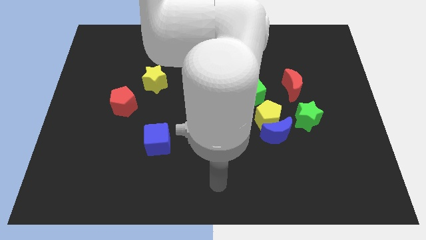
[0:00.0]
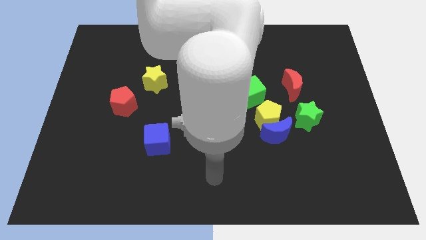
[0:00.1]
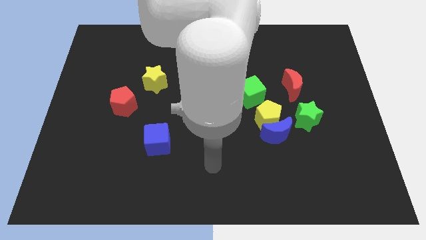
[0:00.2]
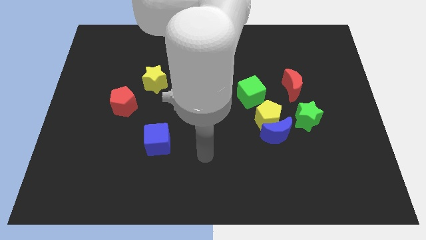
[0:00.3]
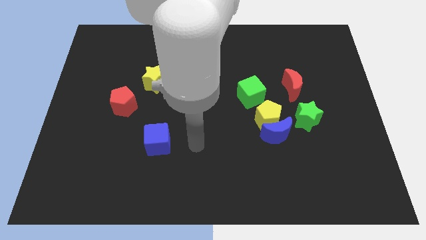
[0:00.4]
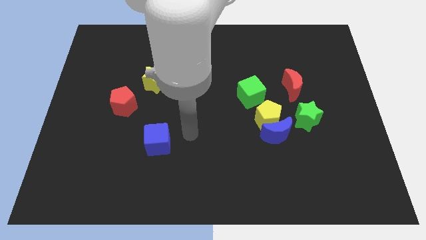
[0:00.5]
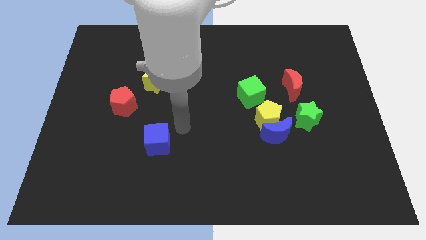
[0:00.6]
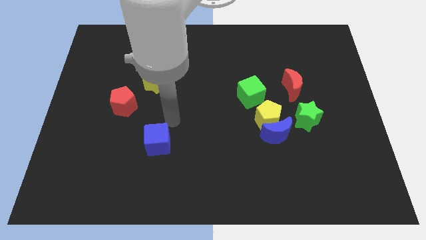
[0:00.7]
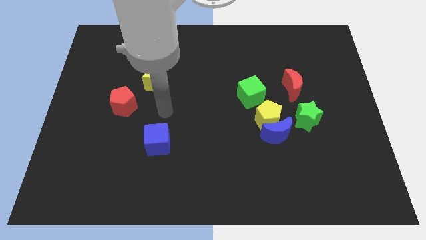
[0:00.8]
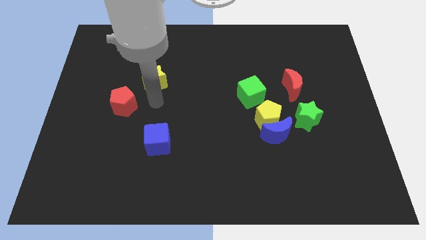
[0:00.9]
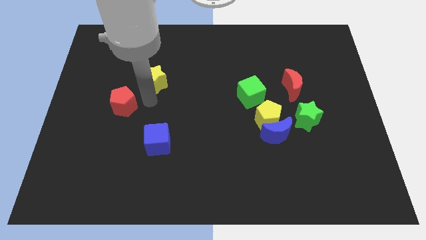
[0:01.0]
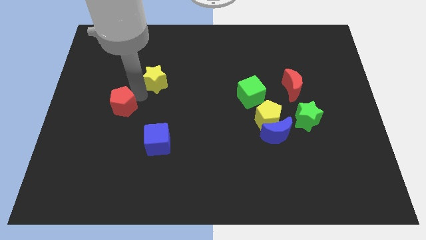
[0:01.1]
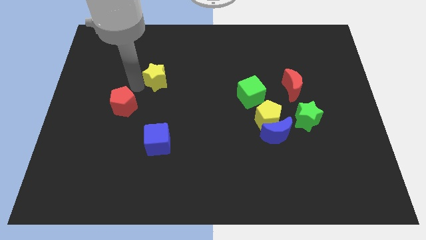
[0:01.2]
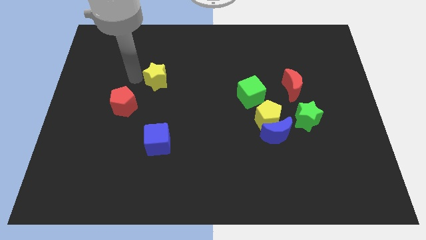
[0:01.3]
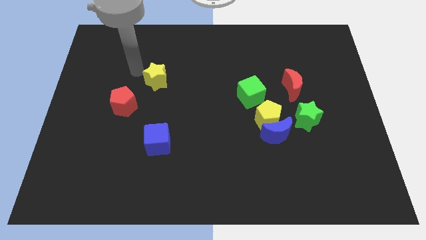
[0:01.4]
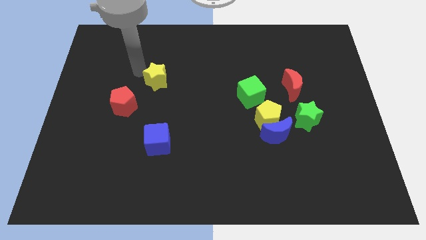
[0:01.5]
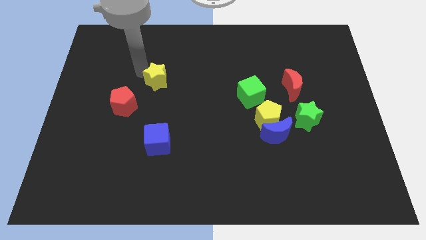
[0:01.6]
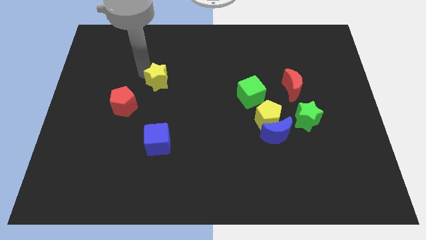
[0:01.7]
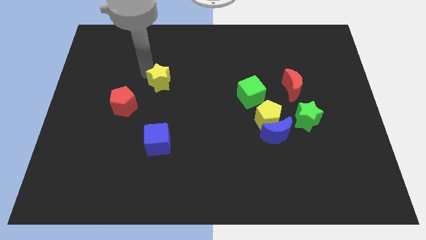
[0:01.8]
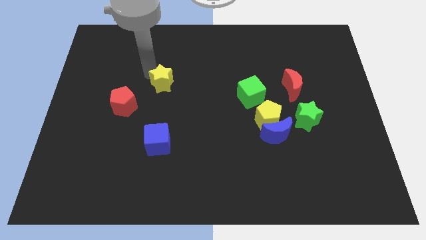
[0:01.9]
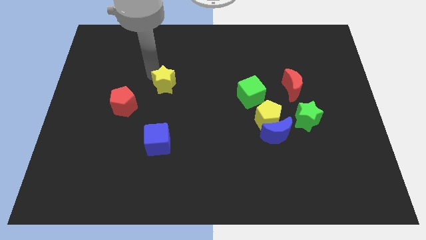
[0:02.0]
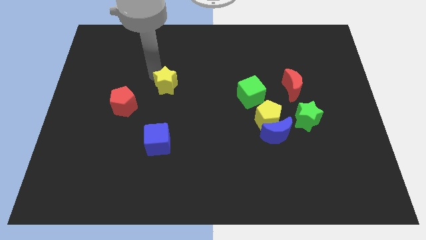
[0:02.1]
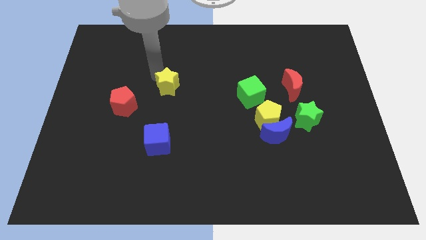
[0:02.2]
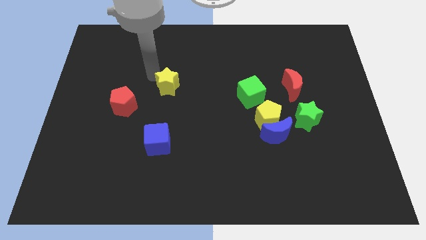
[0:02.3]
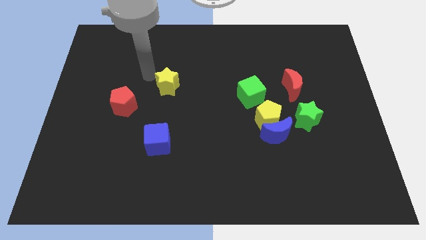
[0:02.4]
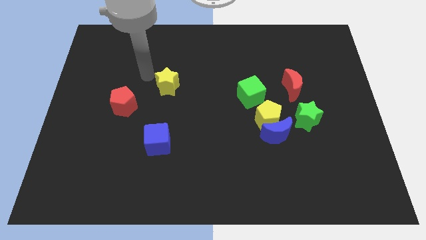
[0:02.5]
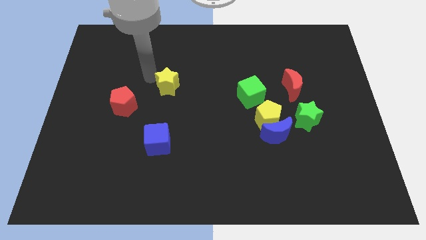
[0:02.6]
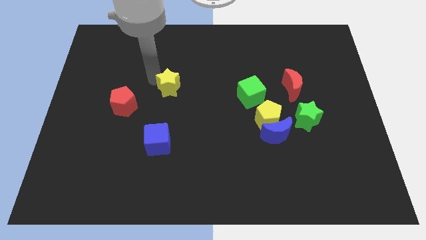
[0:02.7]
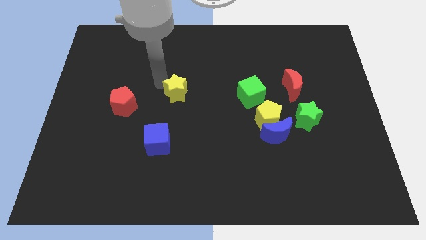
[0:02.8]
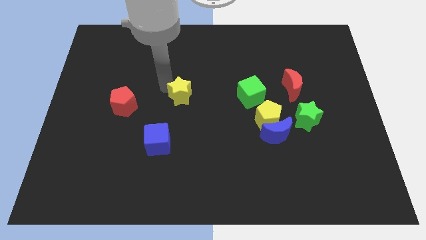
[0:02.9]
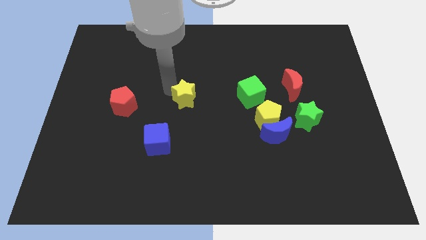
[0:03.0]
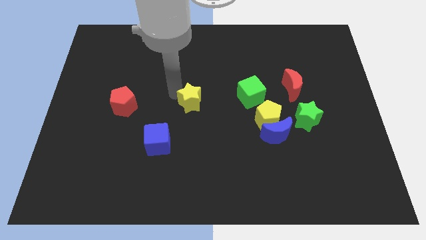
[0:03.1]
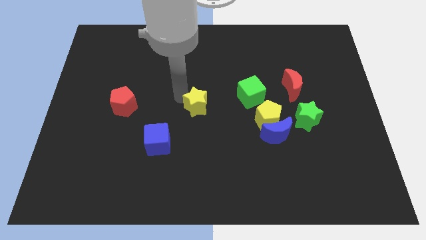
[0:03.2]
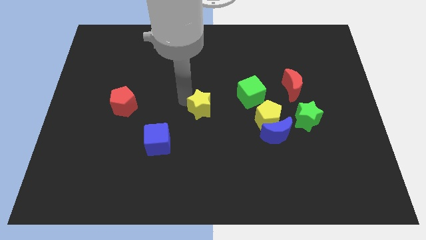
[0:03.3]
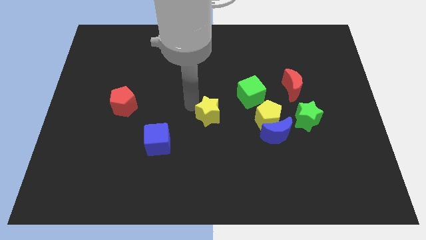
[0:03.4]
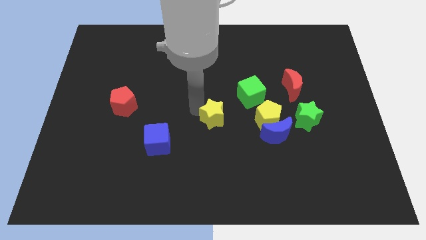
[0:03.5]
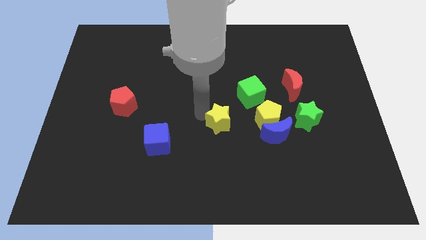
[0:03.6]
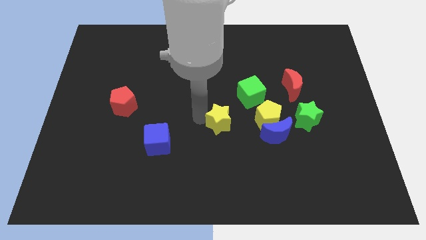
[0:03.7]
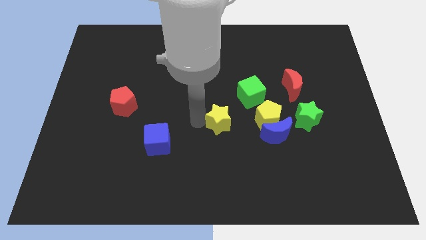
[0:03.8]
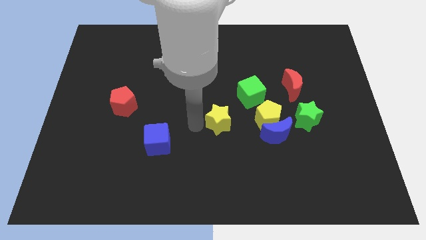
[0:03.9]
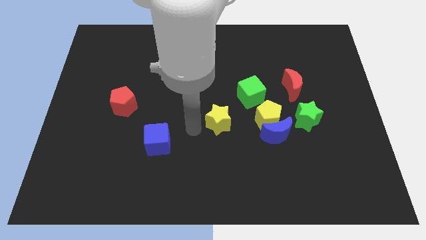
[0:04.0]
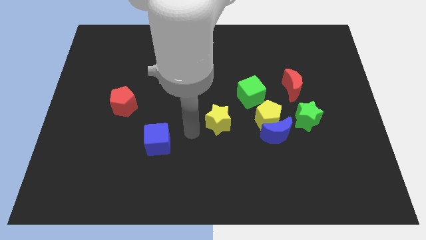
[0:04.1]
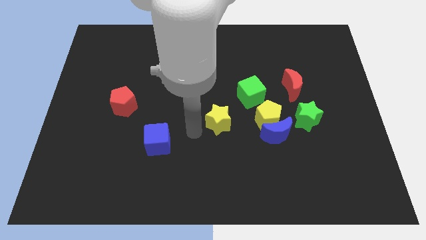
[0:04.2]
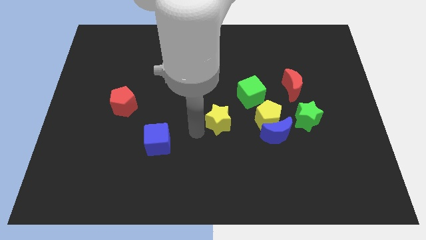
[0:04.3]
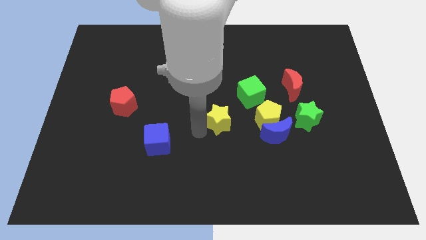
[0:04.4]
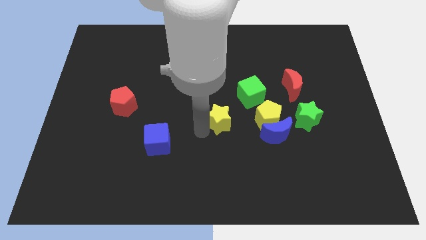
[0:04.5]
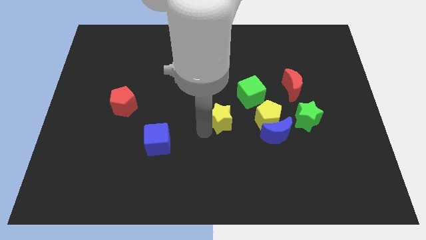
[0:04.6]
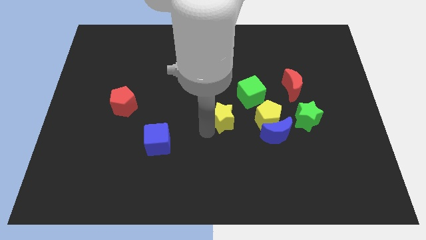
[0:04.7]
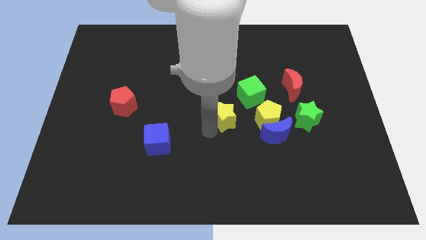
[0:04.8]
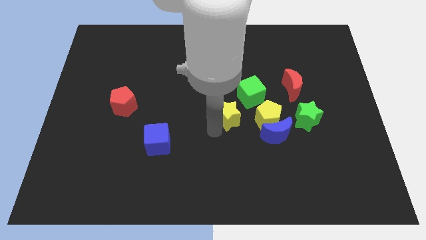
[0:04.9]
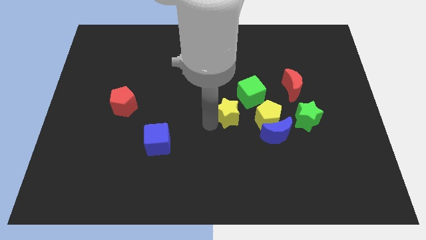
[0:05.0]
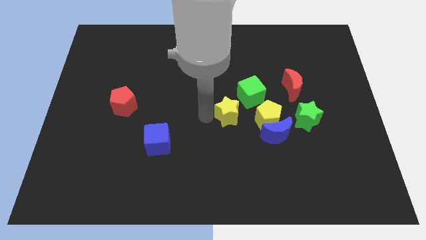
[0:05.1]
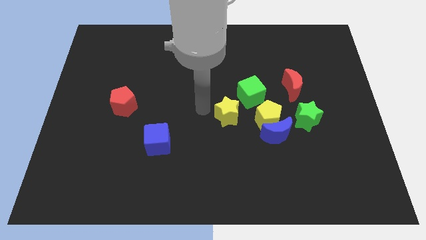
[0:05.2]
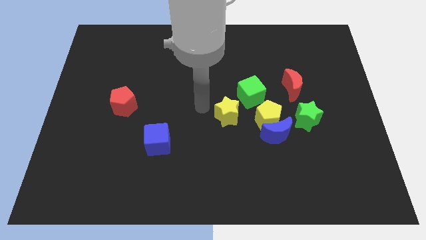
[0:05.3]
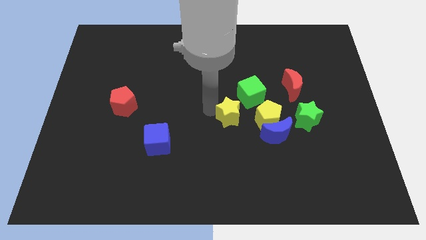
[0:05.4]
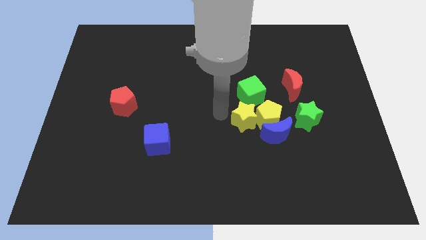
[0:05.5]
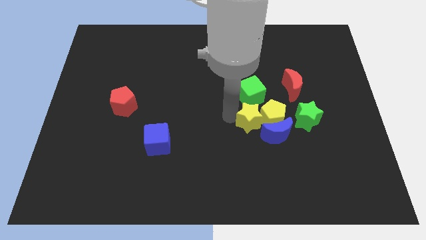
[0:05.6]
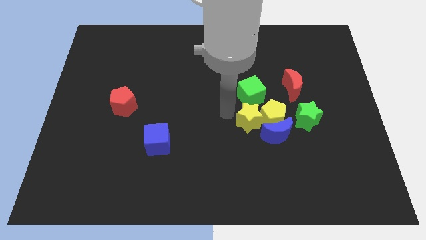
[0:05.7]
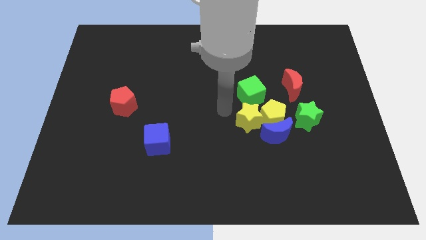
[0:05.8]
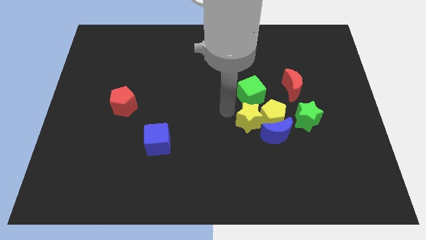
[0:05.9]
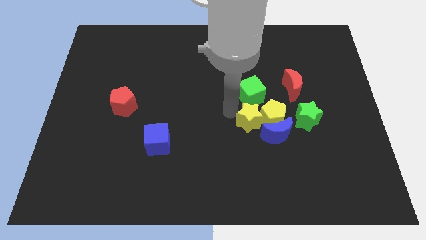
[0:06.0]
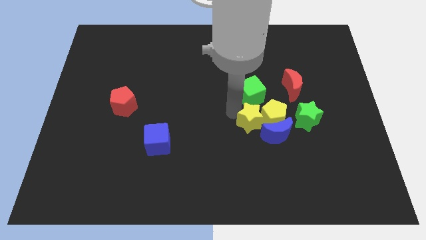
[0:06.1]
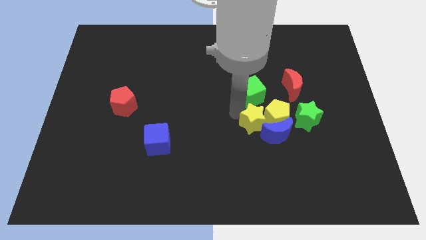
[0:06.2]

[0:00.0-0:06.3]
push the yellow star close to the blue moon

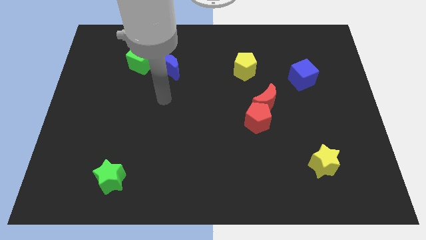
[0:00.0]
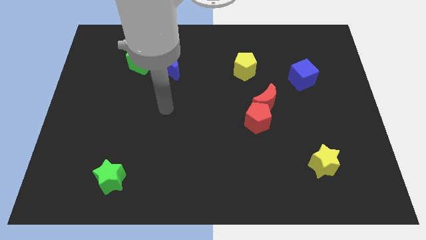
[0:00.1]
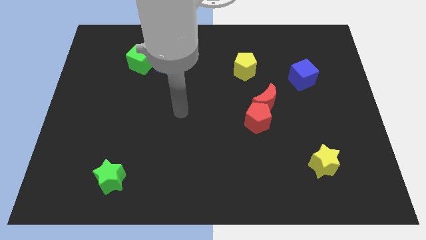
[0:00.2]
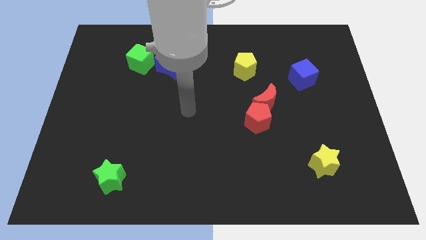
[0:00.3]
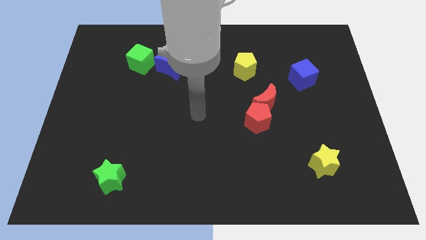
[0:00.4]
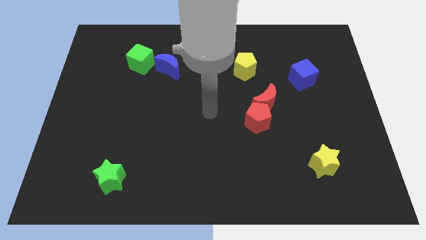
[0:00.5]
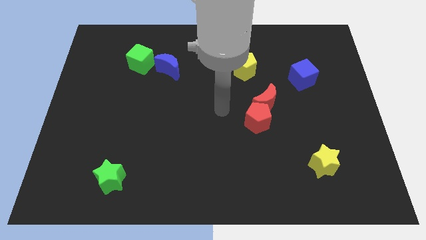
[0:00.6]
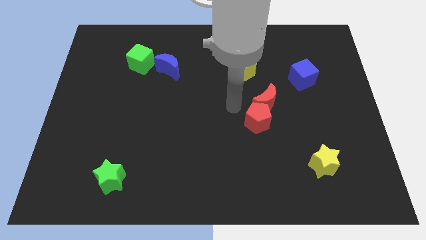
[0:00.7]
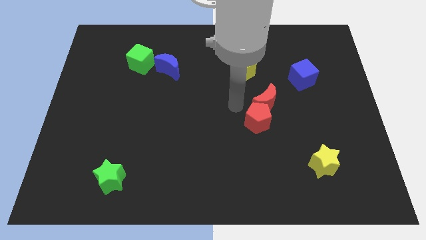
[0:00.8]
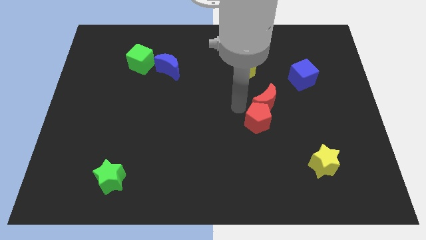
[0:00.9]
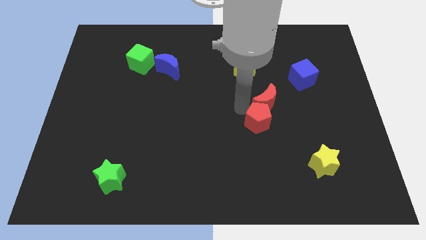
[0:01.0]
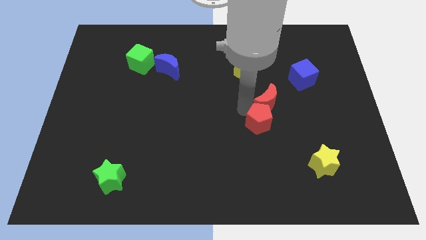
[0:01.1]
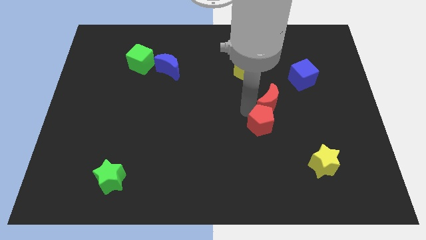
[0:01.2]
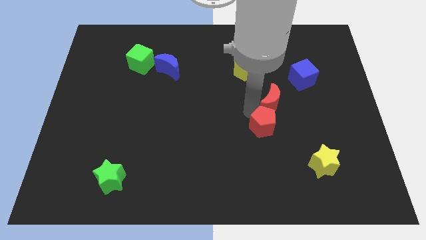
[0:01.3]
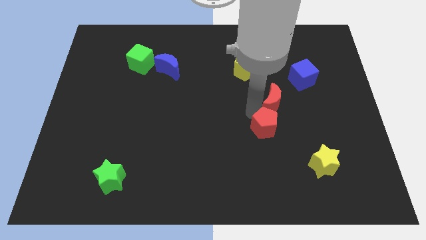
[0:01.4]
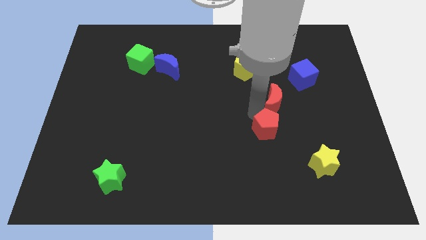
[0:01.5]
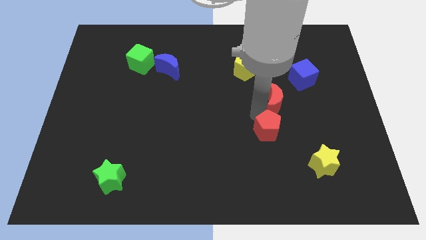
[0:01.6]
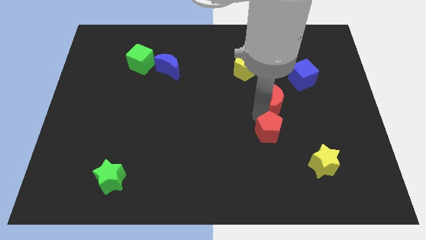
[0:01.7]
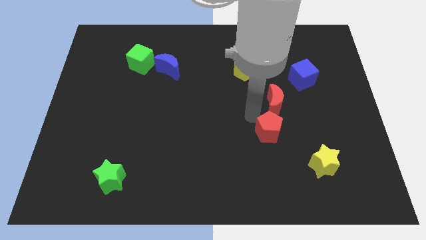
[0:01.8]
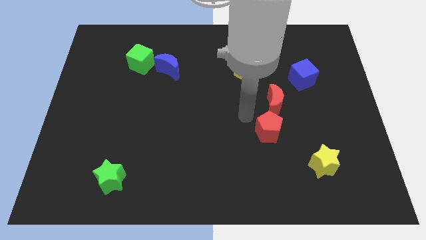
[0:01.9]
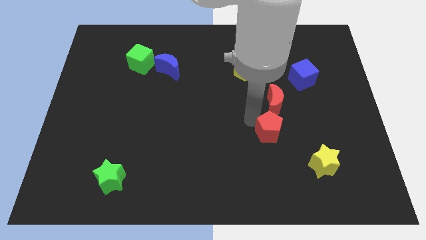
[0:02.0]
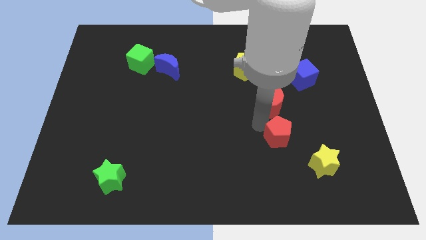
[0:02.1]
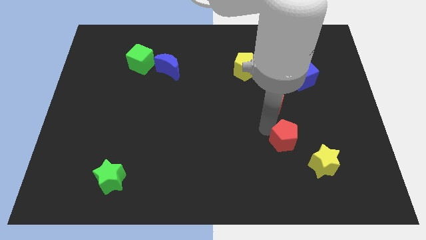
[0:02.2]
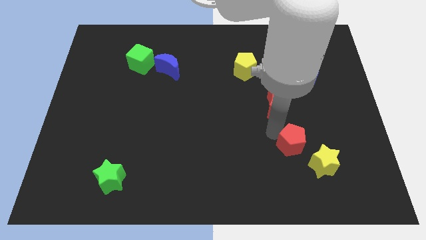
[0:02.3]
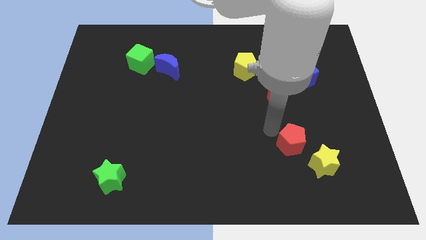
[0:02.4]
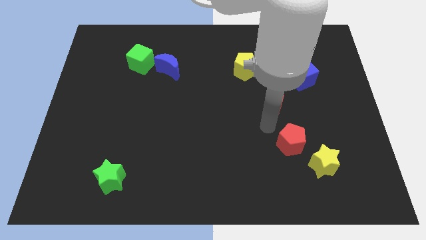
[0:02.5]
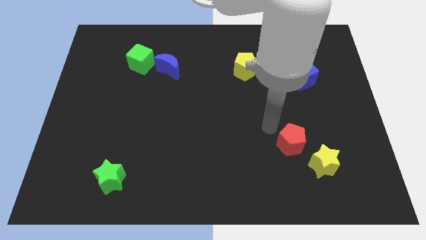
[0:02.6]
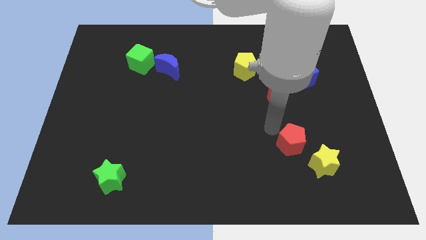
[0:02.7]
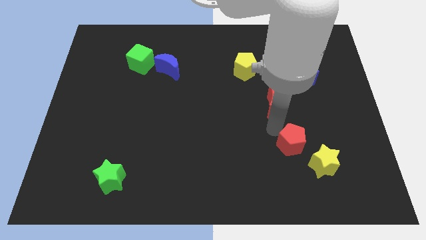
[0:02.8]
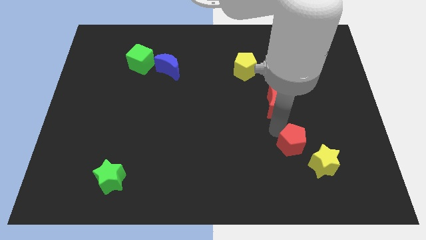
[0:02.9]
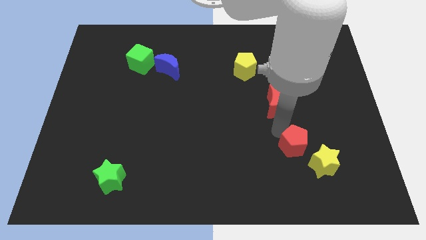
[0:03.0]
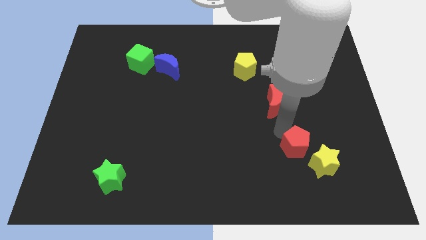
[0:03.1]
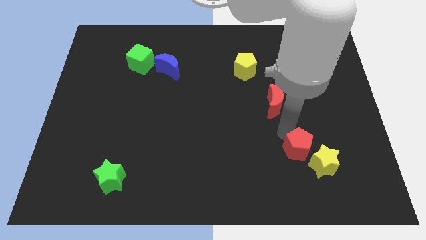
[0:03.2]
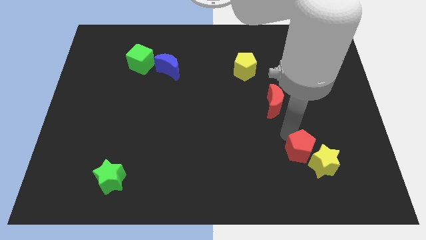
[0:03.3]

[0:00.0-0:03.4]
put the red pentagon to the yellow star
